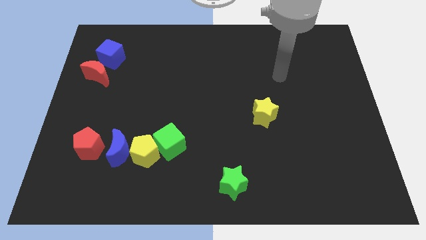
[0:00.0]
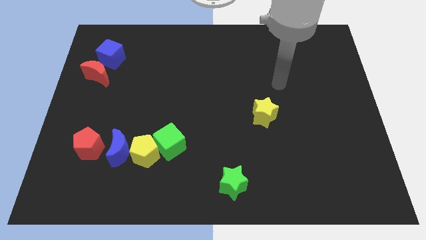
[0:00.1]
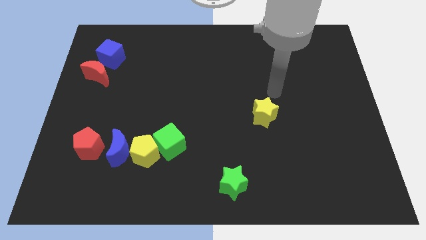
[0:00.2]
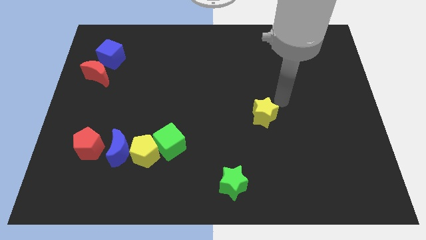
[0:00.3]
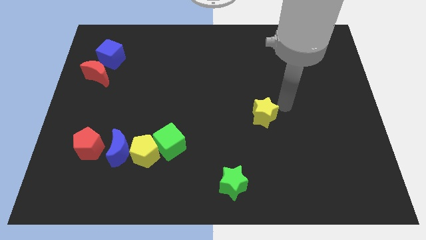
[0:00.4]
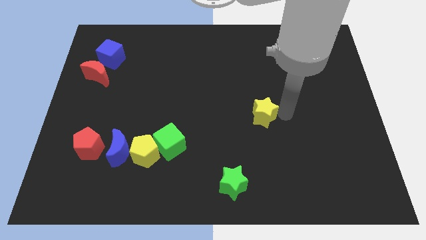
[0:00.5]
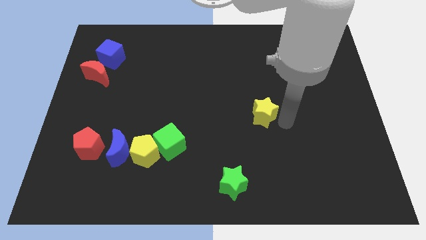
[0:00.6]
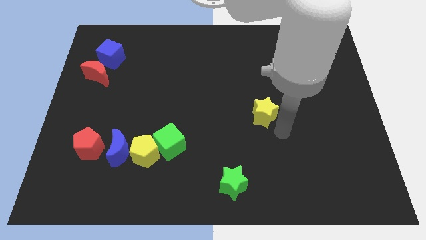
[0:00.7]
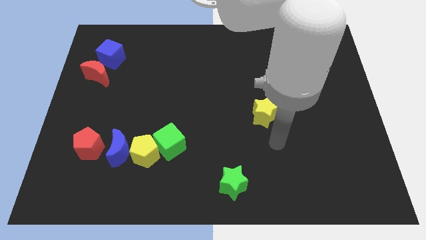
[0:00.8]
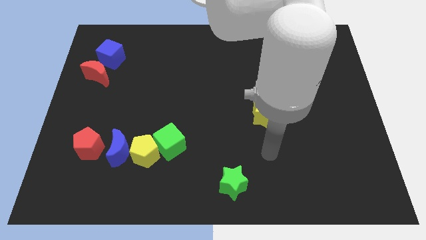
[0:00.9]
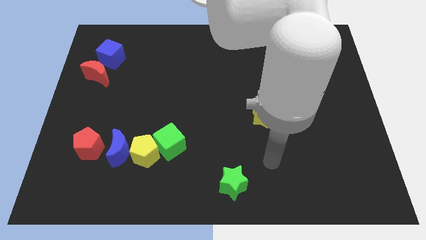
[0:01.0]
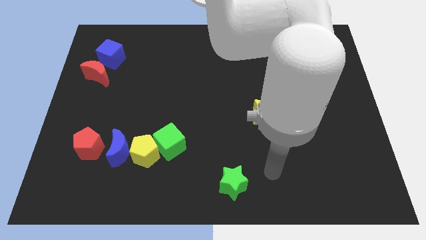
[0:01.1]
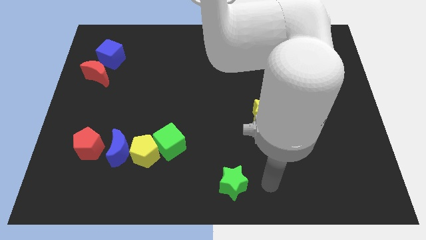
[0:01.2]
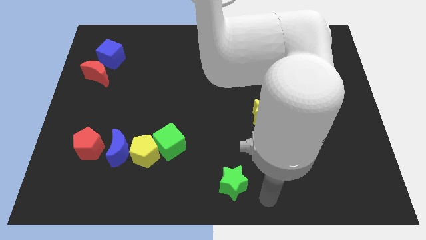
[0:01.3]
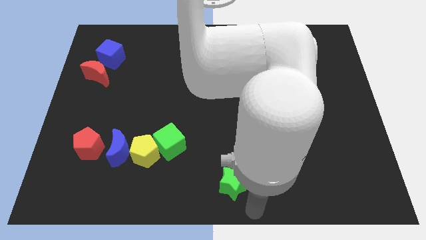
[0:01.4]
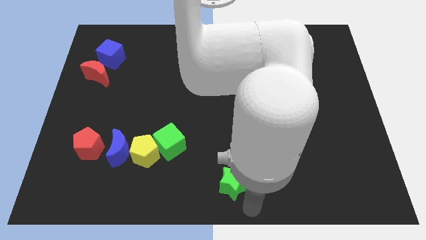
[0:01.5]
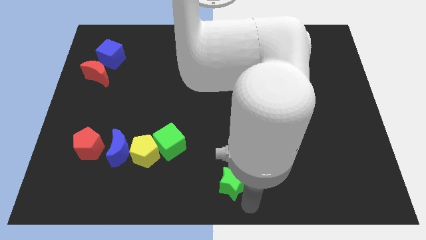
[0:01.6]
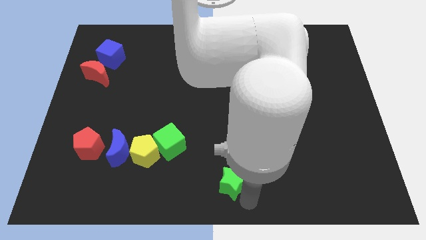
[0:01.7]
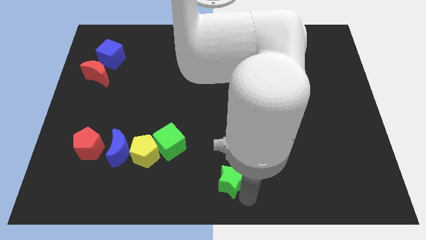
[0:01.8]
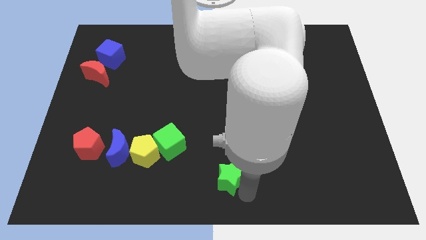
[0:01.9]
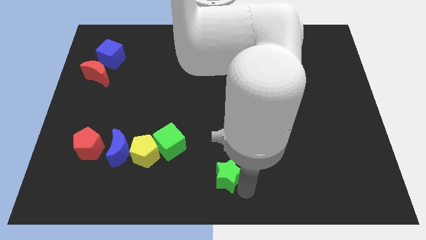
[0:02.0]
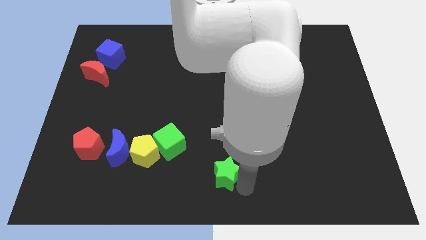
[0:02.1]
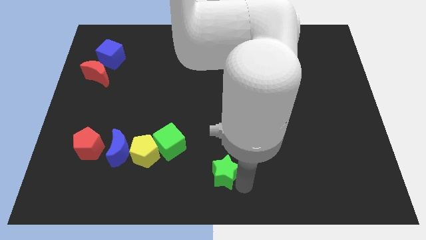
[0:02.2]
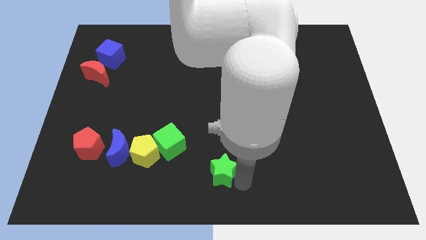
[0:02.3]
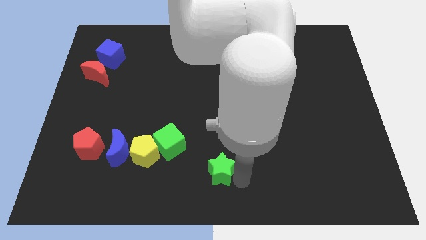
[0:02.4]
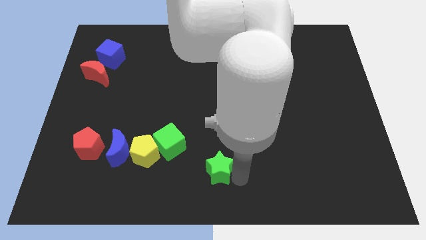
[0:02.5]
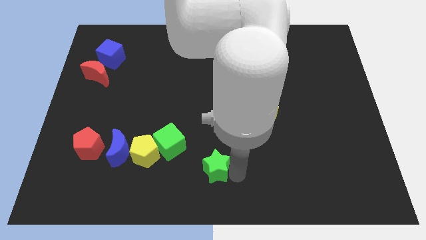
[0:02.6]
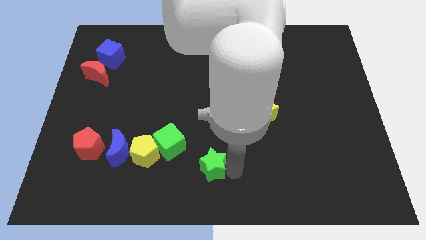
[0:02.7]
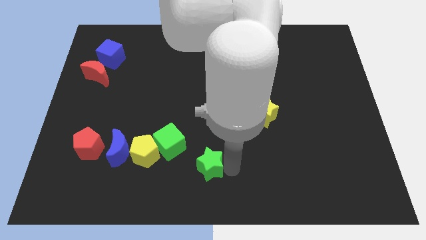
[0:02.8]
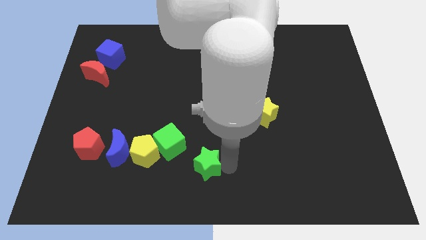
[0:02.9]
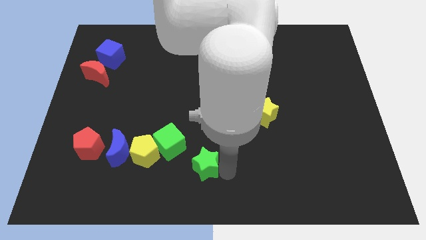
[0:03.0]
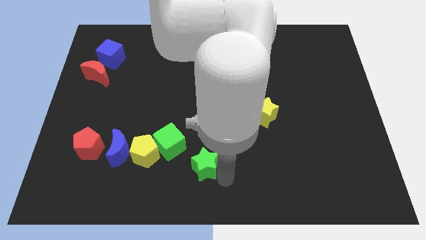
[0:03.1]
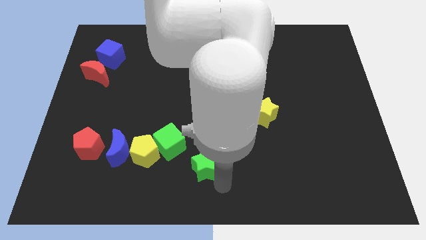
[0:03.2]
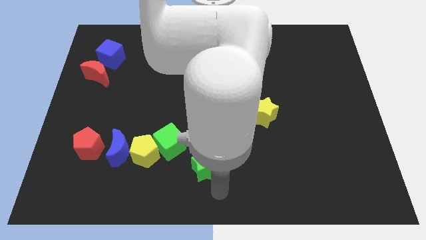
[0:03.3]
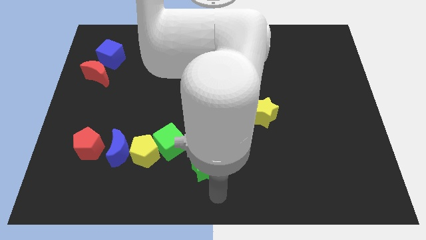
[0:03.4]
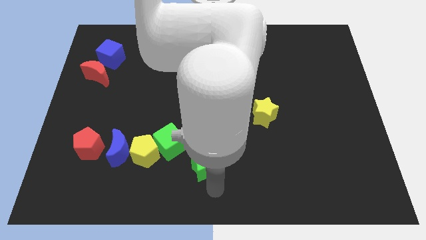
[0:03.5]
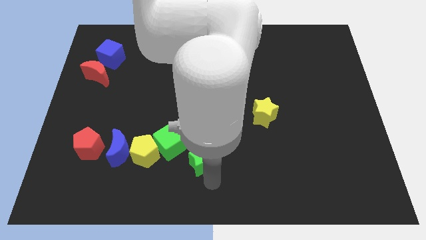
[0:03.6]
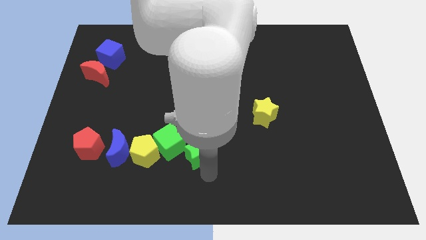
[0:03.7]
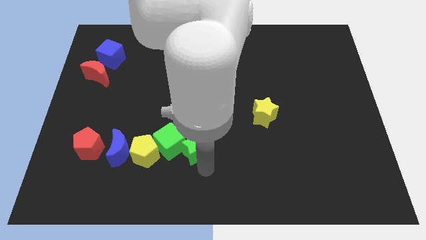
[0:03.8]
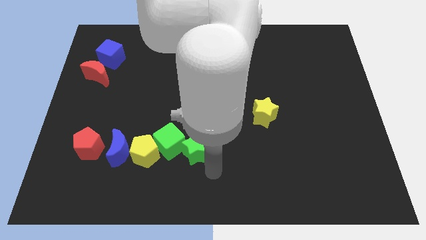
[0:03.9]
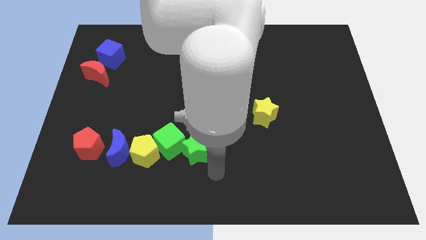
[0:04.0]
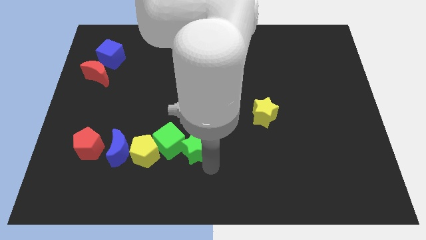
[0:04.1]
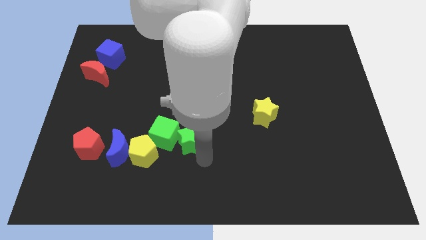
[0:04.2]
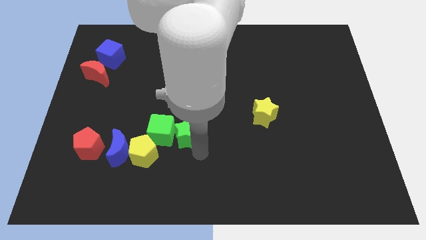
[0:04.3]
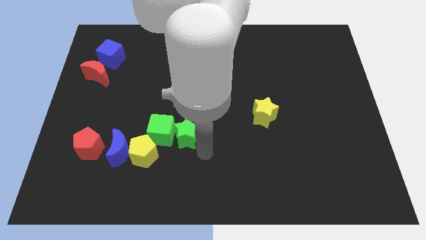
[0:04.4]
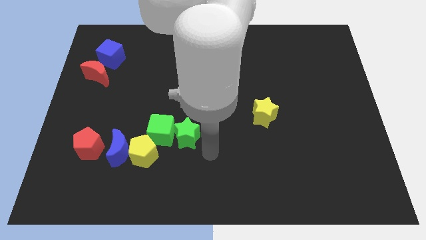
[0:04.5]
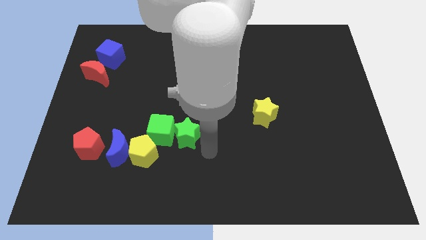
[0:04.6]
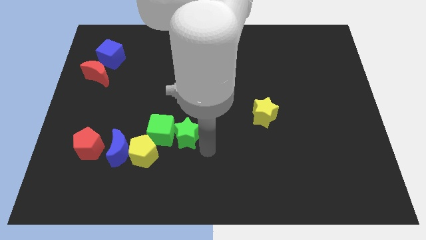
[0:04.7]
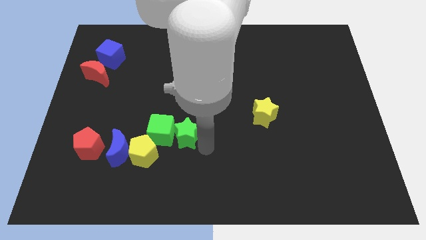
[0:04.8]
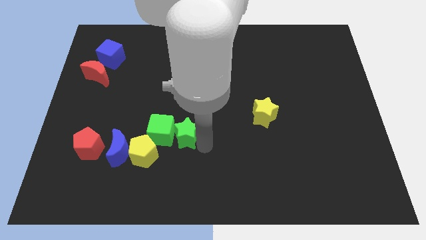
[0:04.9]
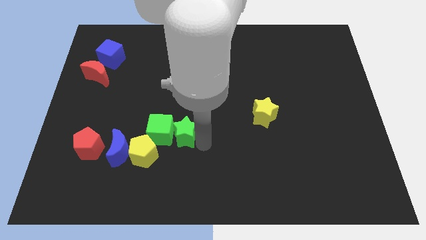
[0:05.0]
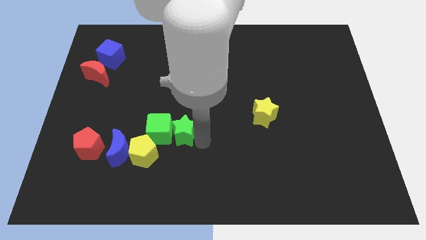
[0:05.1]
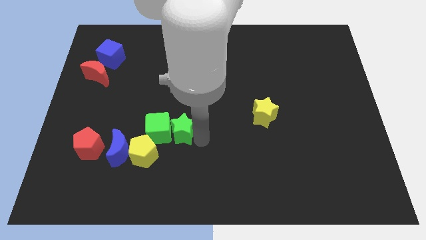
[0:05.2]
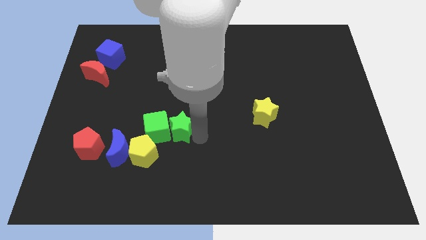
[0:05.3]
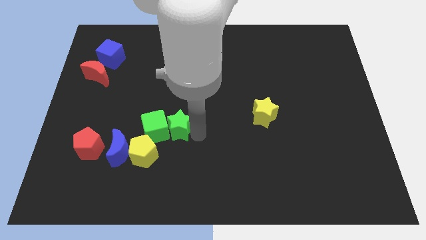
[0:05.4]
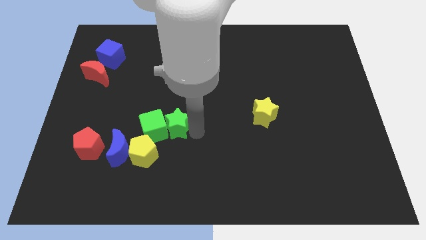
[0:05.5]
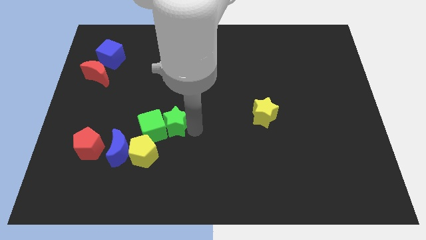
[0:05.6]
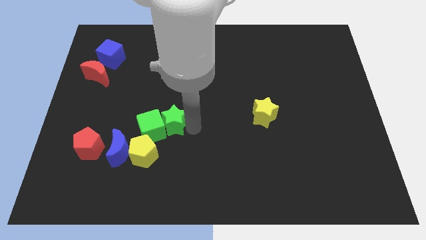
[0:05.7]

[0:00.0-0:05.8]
move the green star diagonally upwards and left

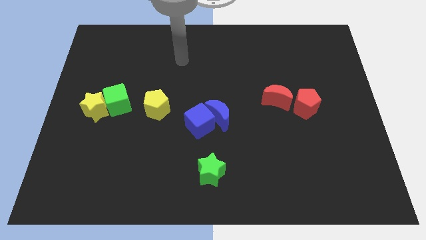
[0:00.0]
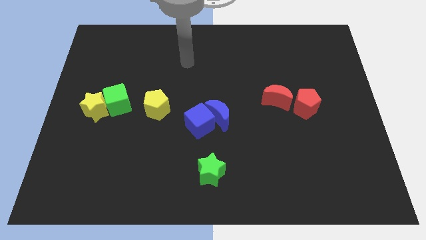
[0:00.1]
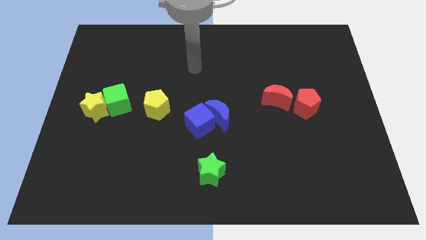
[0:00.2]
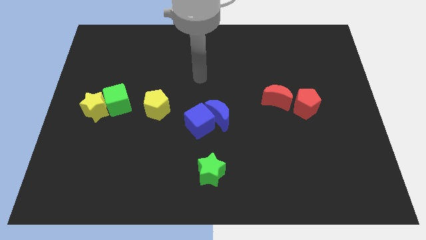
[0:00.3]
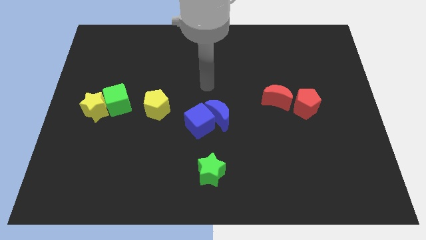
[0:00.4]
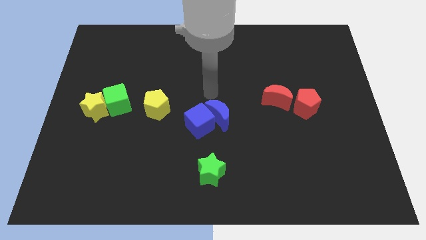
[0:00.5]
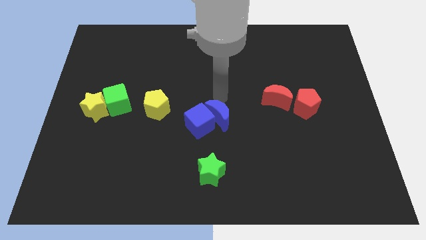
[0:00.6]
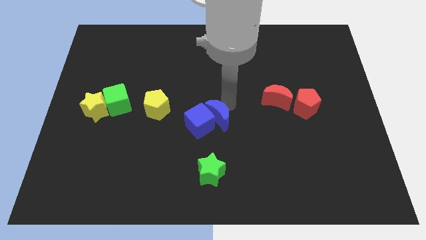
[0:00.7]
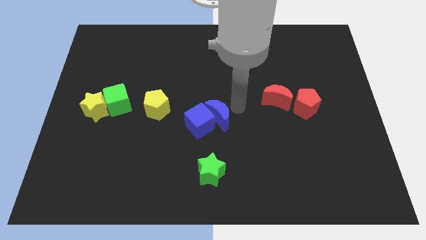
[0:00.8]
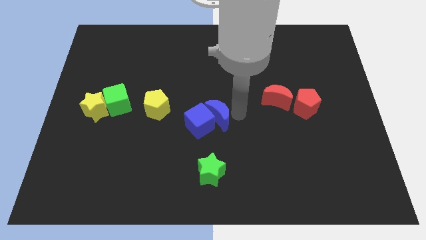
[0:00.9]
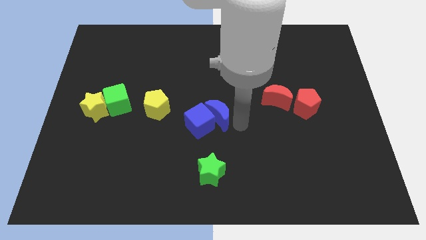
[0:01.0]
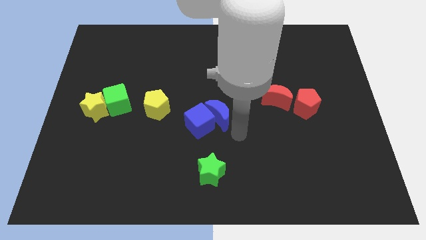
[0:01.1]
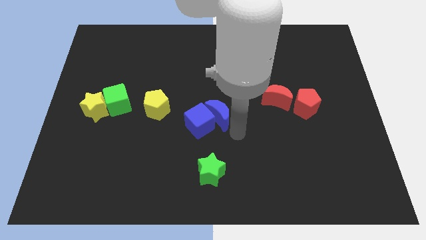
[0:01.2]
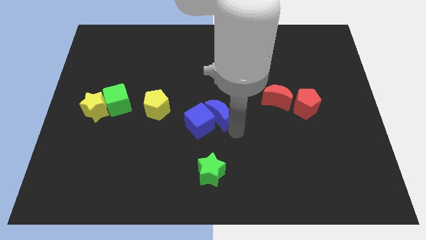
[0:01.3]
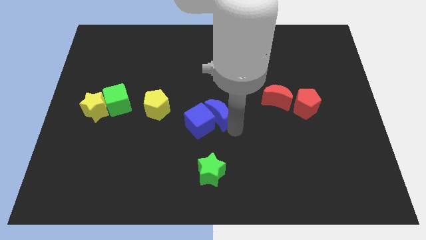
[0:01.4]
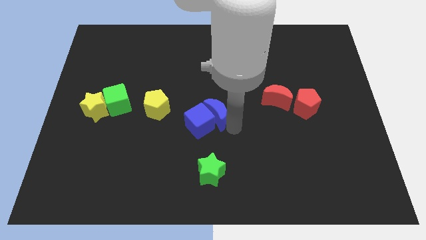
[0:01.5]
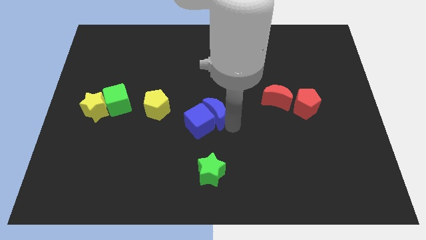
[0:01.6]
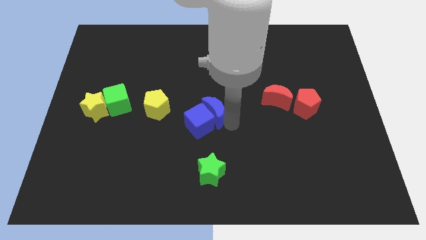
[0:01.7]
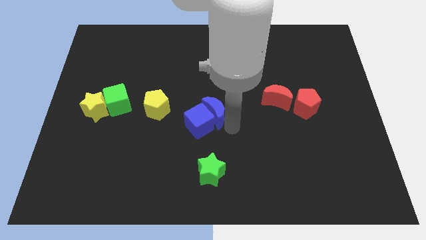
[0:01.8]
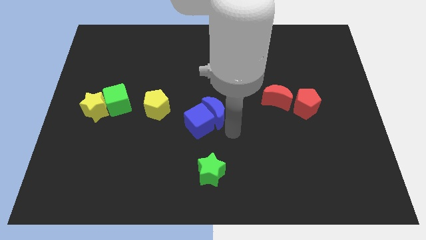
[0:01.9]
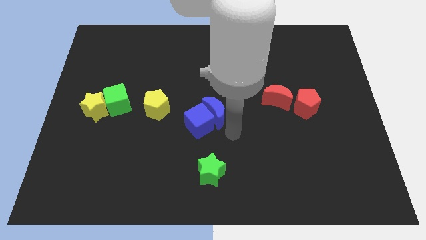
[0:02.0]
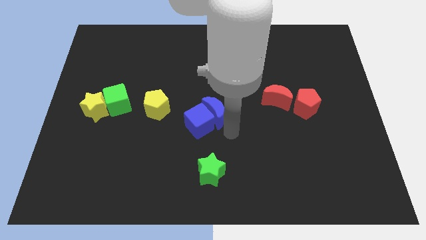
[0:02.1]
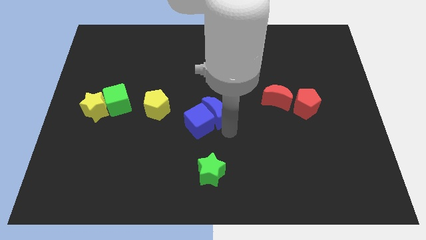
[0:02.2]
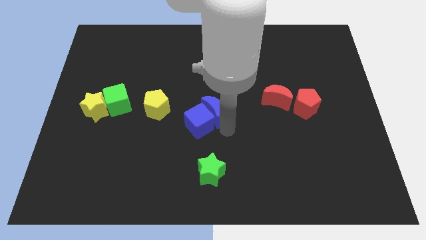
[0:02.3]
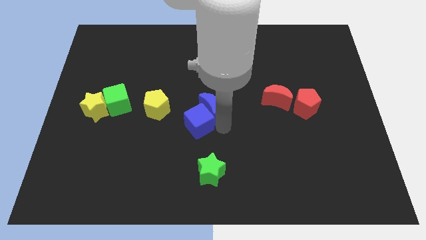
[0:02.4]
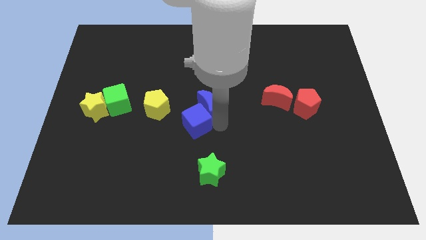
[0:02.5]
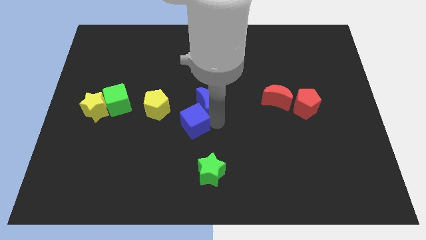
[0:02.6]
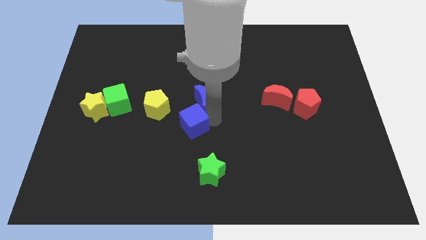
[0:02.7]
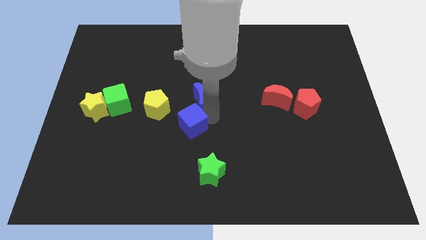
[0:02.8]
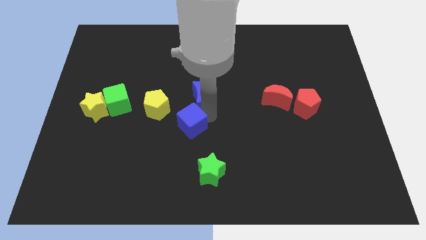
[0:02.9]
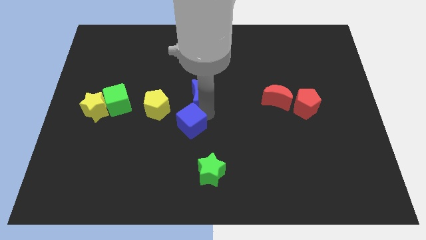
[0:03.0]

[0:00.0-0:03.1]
slightly move the blue moon diagonally up and to the left
